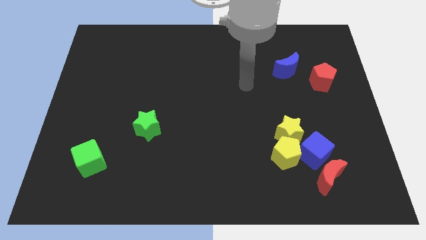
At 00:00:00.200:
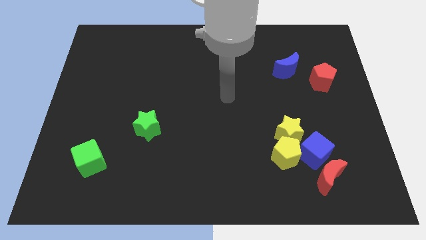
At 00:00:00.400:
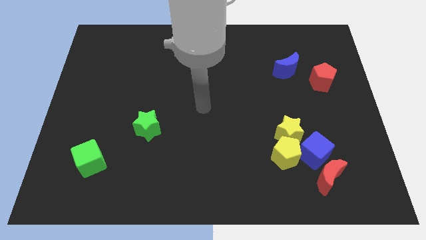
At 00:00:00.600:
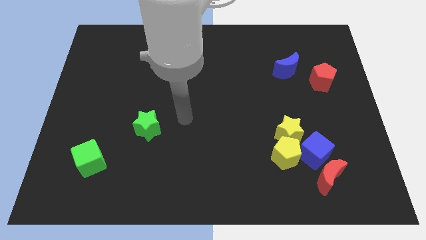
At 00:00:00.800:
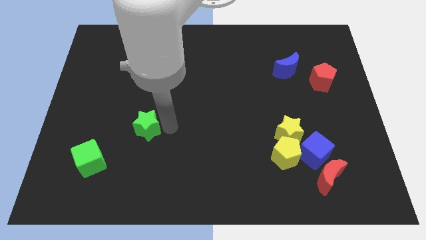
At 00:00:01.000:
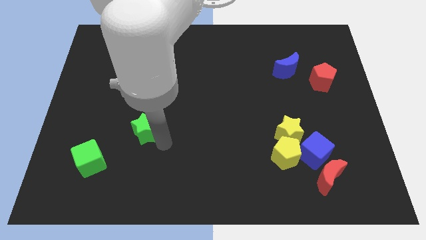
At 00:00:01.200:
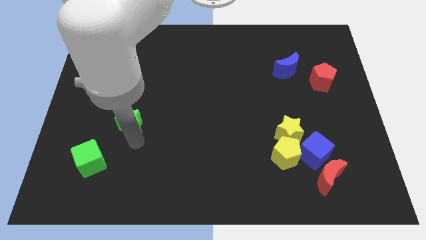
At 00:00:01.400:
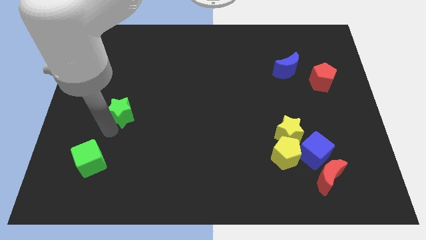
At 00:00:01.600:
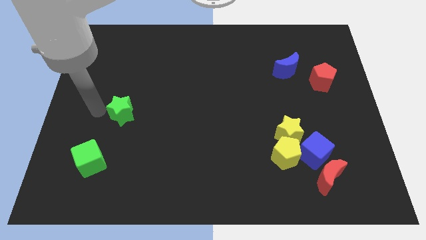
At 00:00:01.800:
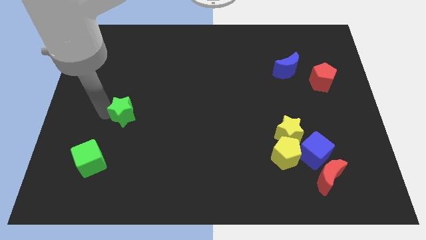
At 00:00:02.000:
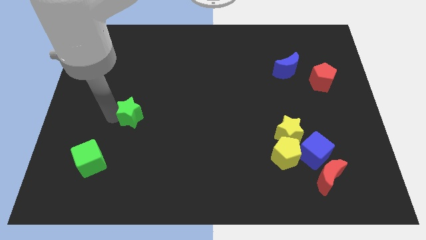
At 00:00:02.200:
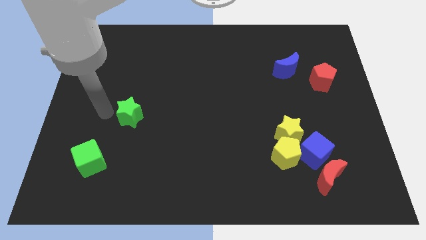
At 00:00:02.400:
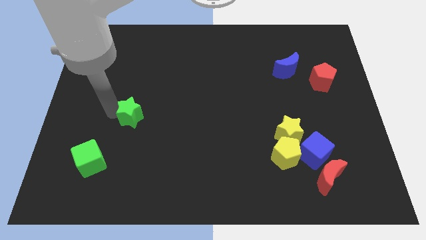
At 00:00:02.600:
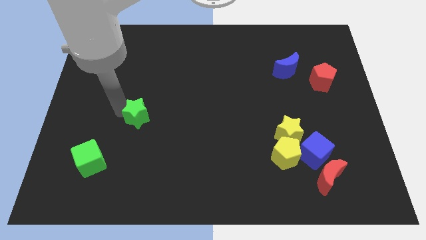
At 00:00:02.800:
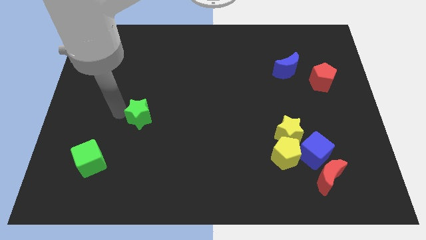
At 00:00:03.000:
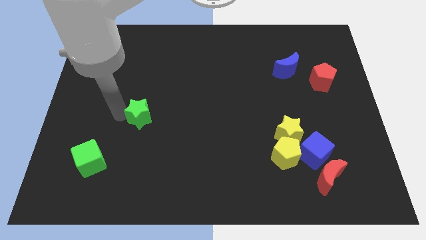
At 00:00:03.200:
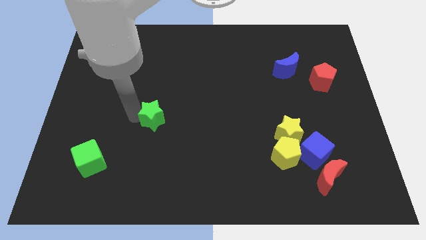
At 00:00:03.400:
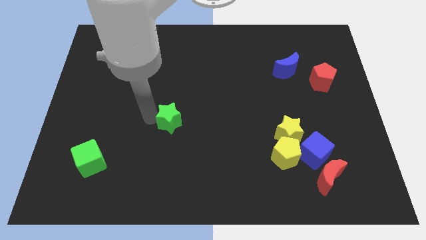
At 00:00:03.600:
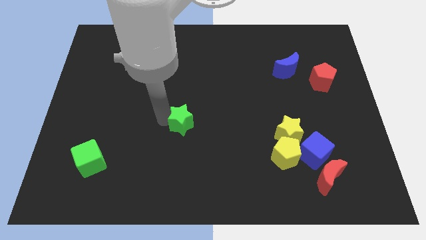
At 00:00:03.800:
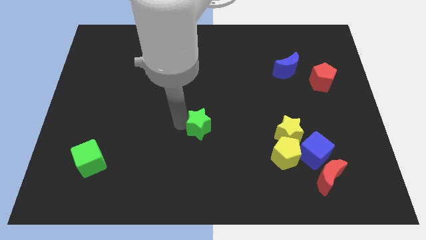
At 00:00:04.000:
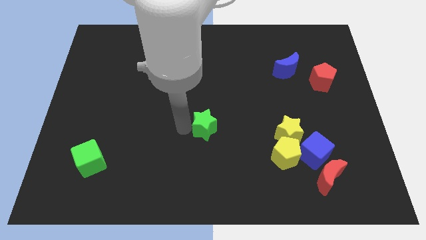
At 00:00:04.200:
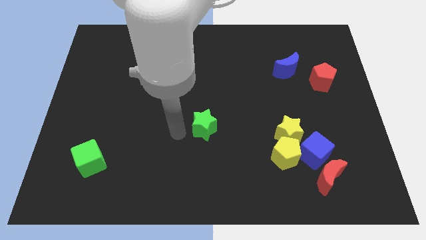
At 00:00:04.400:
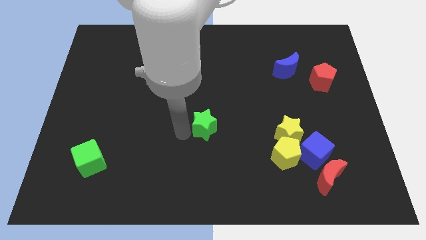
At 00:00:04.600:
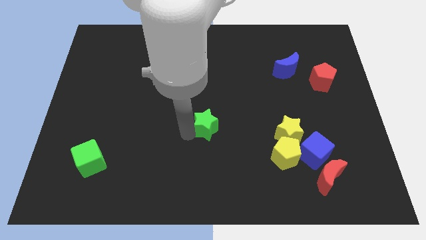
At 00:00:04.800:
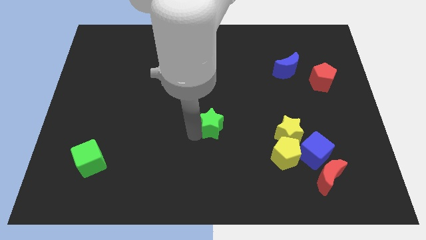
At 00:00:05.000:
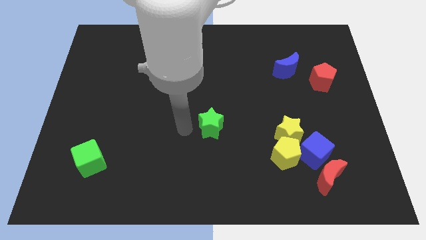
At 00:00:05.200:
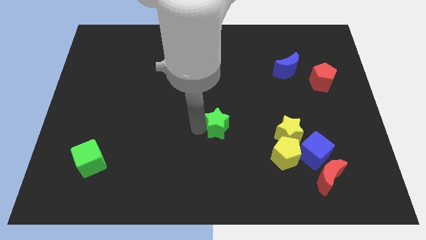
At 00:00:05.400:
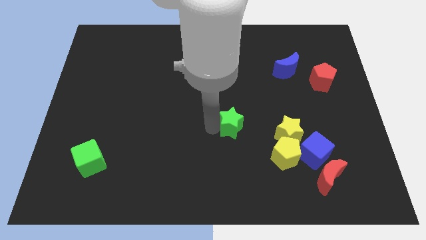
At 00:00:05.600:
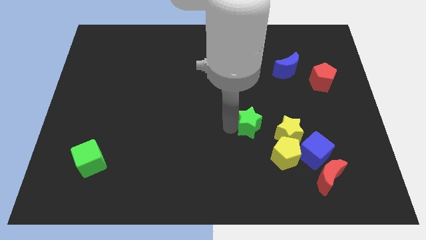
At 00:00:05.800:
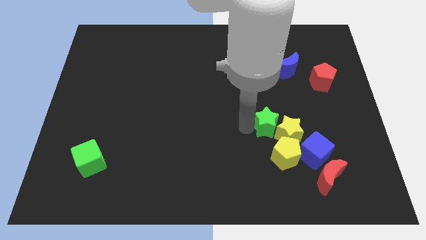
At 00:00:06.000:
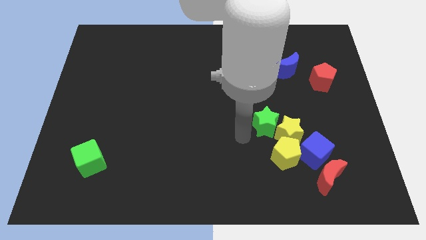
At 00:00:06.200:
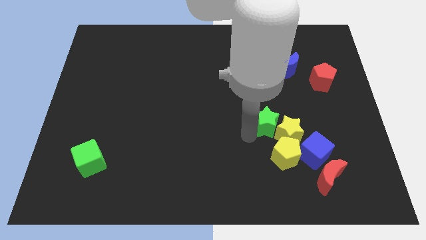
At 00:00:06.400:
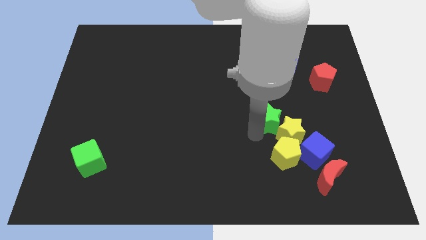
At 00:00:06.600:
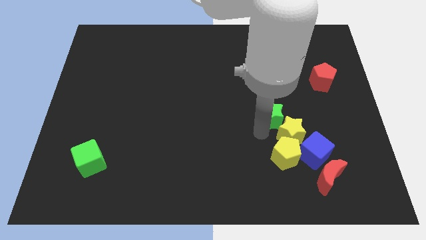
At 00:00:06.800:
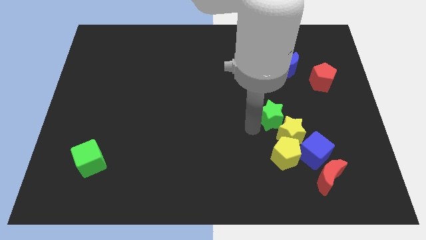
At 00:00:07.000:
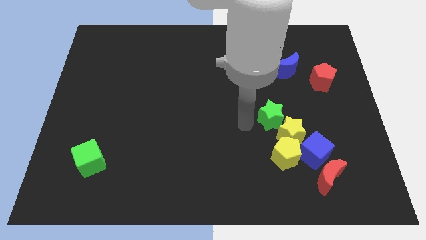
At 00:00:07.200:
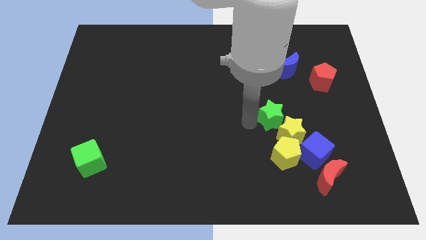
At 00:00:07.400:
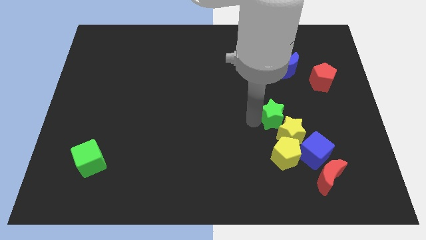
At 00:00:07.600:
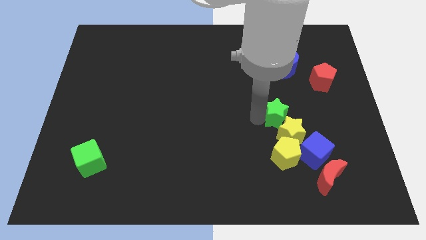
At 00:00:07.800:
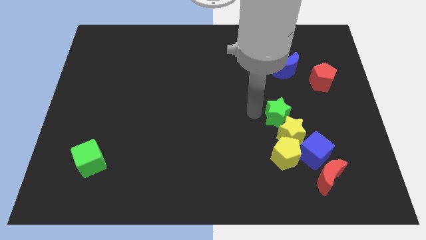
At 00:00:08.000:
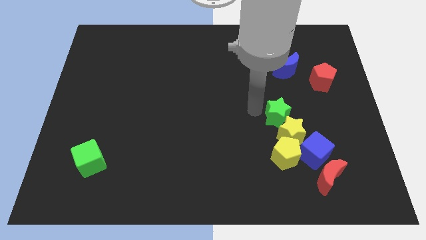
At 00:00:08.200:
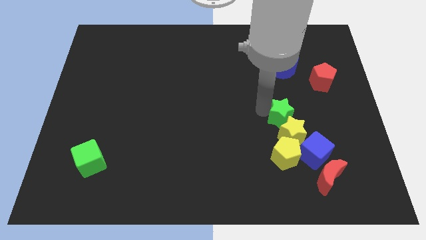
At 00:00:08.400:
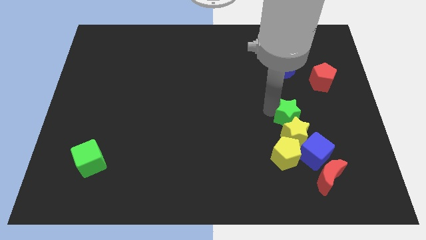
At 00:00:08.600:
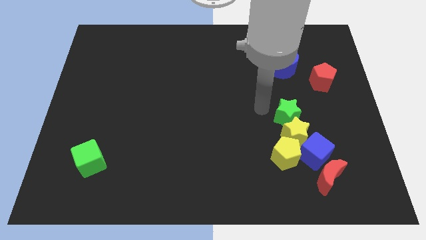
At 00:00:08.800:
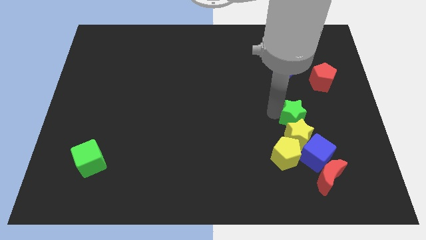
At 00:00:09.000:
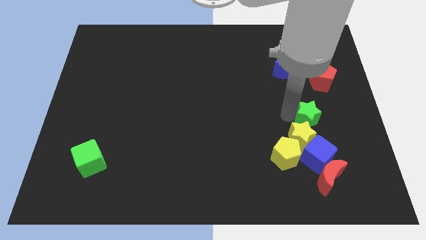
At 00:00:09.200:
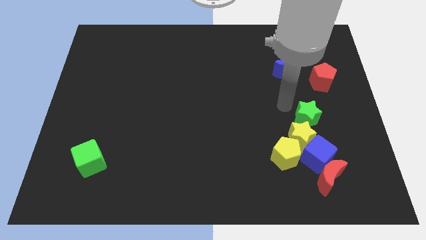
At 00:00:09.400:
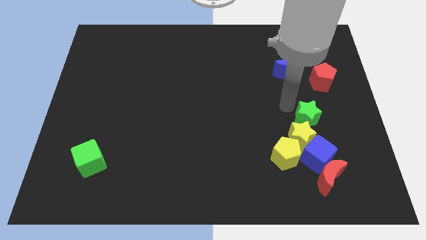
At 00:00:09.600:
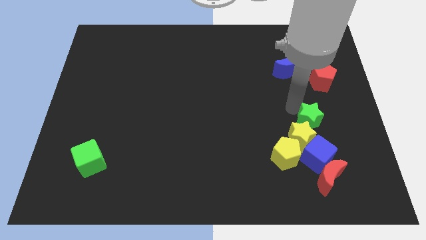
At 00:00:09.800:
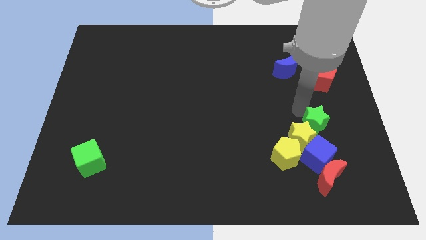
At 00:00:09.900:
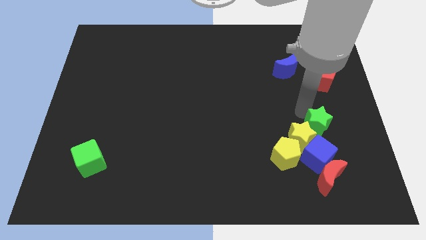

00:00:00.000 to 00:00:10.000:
slide the green star diagonally up and to the right of the blue cube

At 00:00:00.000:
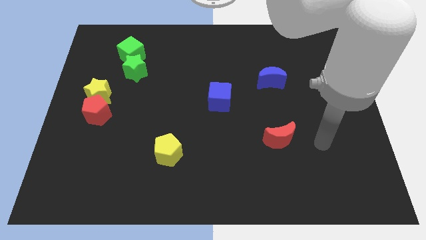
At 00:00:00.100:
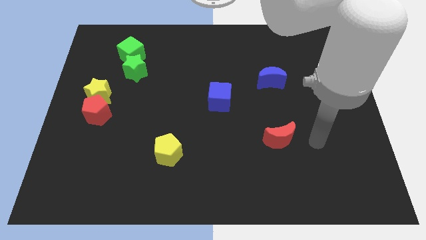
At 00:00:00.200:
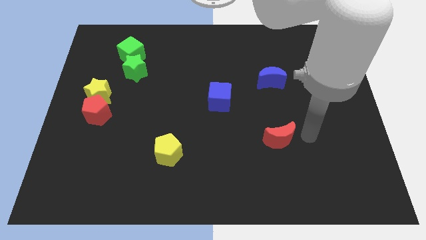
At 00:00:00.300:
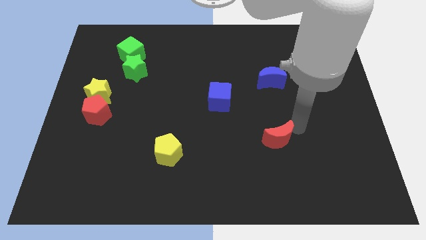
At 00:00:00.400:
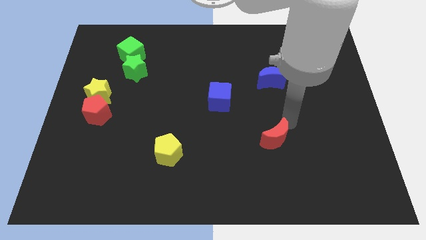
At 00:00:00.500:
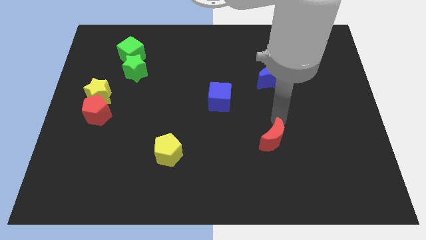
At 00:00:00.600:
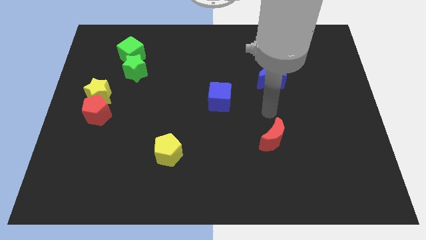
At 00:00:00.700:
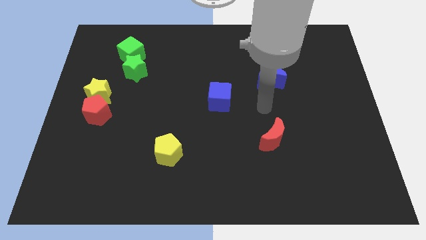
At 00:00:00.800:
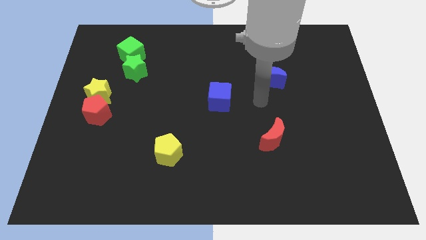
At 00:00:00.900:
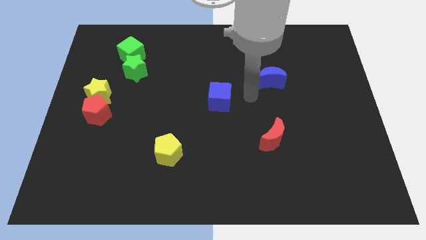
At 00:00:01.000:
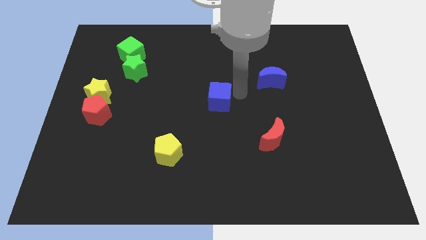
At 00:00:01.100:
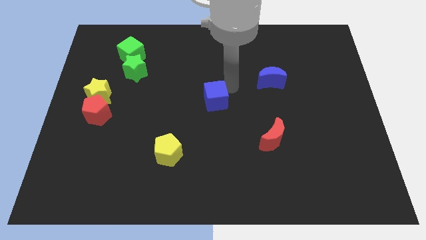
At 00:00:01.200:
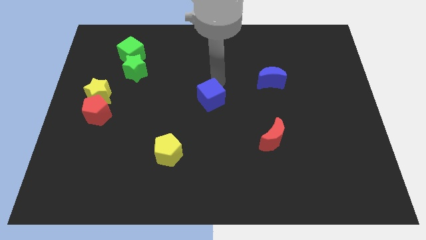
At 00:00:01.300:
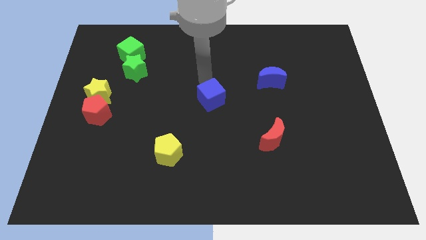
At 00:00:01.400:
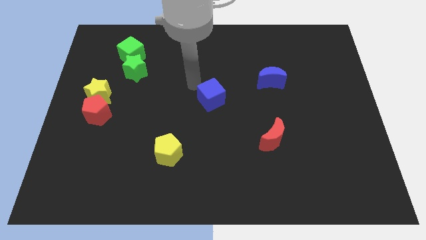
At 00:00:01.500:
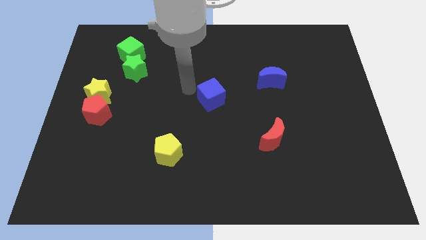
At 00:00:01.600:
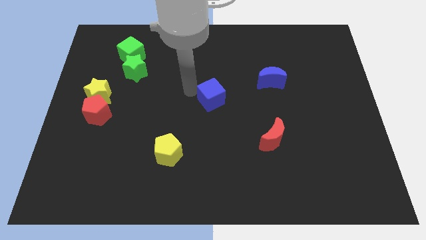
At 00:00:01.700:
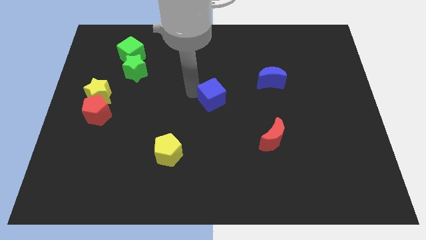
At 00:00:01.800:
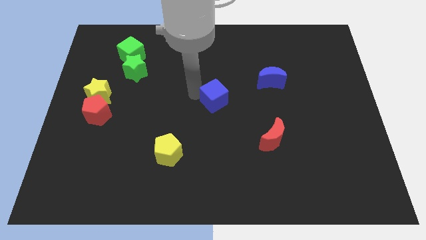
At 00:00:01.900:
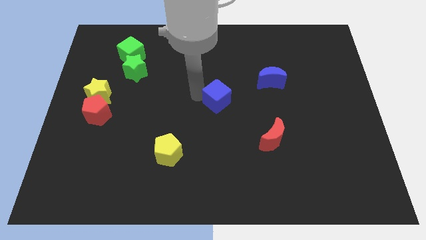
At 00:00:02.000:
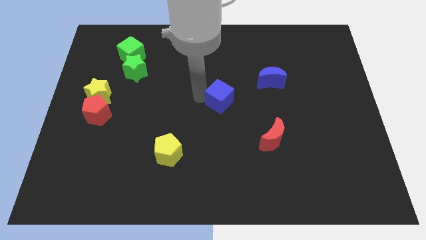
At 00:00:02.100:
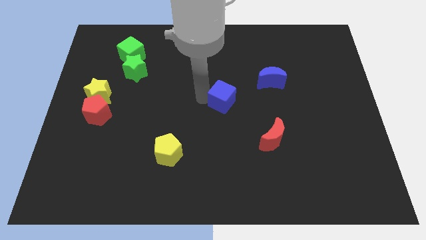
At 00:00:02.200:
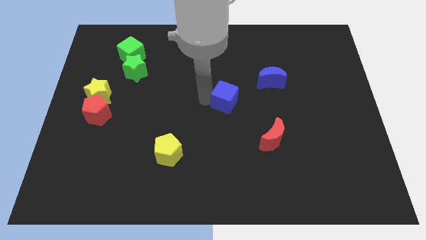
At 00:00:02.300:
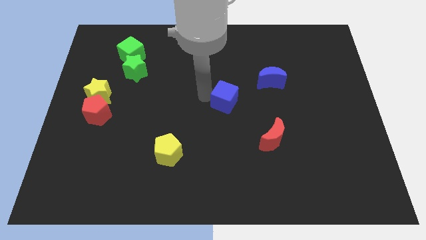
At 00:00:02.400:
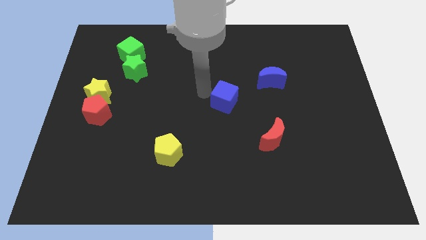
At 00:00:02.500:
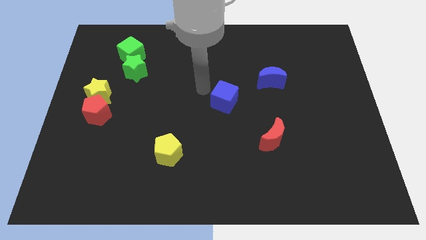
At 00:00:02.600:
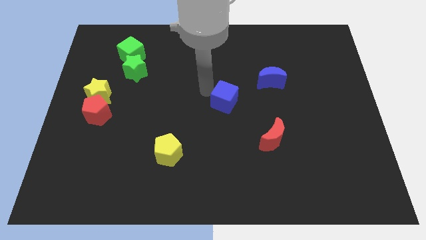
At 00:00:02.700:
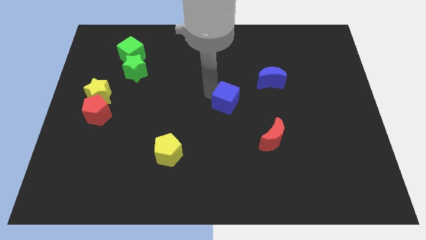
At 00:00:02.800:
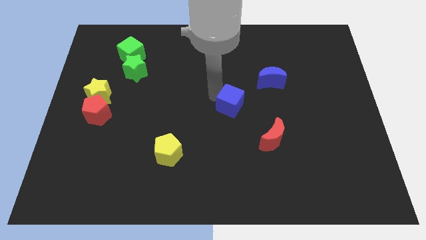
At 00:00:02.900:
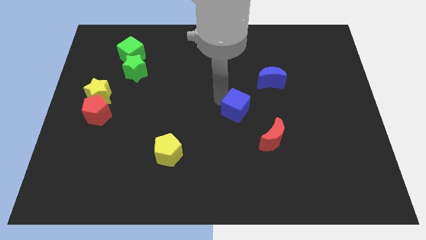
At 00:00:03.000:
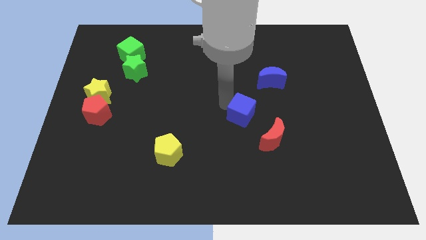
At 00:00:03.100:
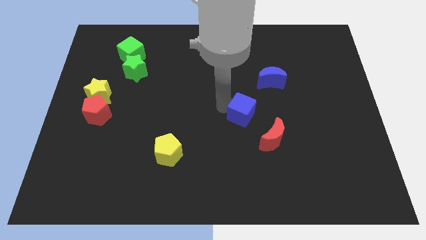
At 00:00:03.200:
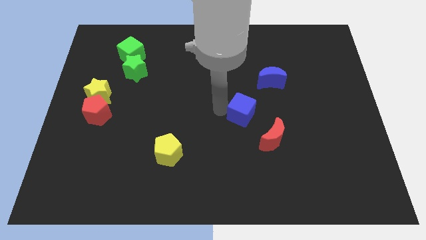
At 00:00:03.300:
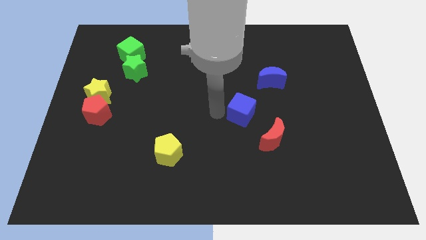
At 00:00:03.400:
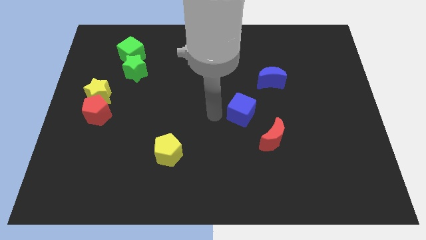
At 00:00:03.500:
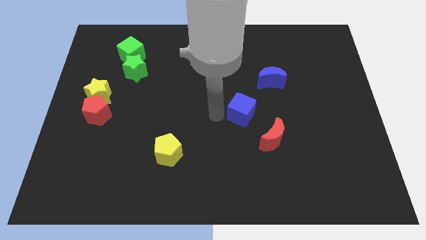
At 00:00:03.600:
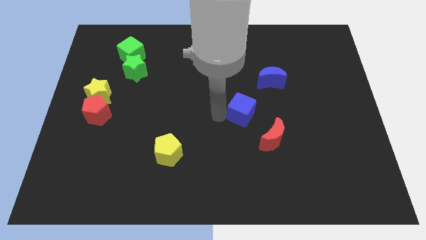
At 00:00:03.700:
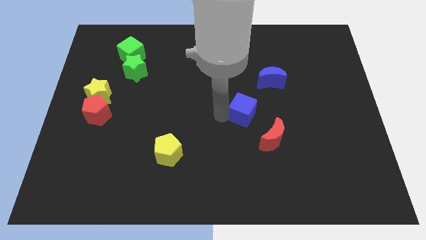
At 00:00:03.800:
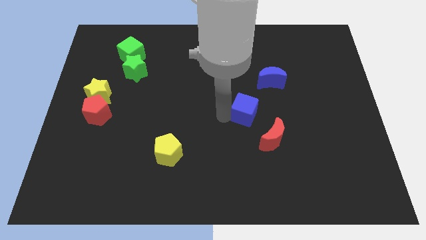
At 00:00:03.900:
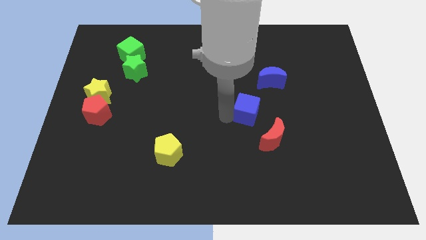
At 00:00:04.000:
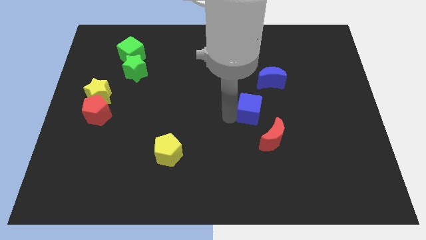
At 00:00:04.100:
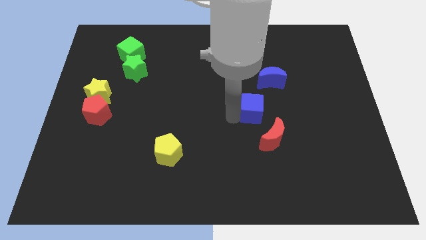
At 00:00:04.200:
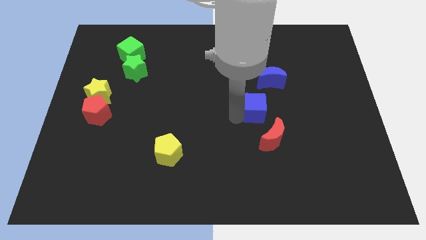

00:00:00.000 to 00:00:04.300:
slide the blue cube to the bottom of the blue moon
